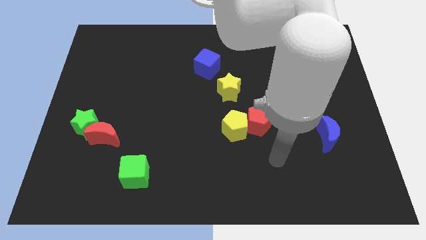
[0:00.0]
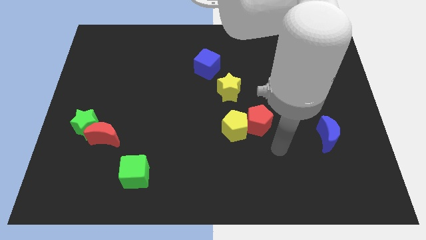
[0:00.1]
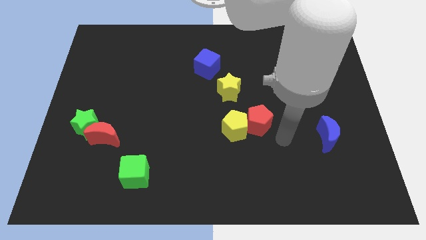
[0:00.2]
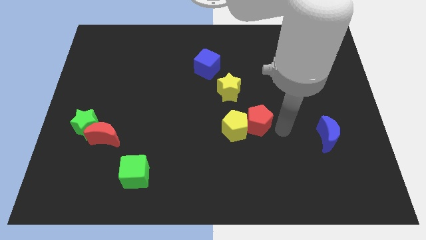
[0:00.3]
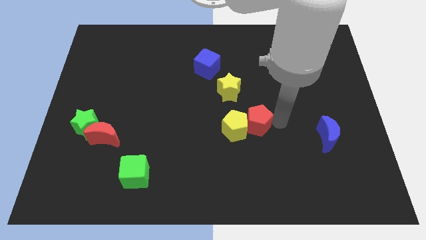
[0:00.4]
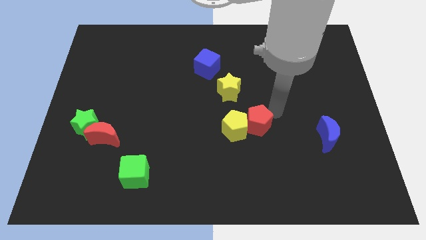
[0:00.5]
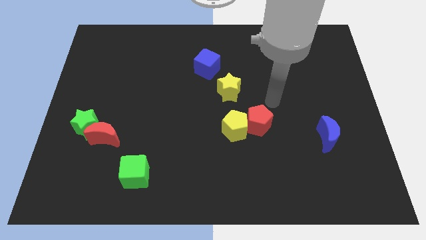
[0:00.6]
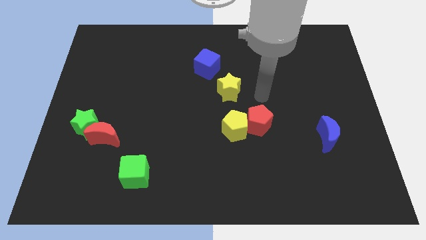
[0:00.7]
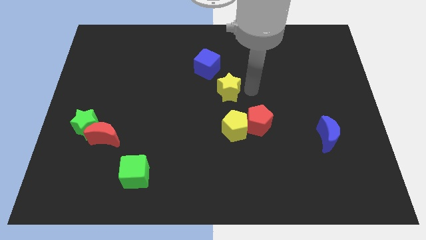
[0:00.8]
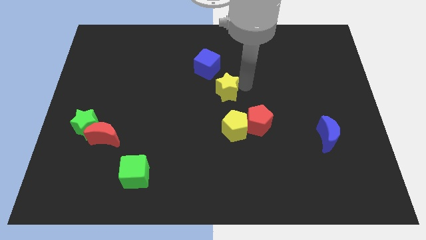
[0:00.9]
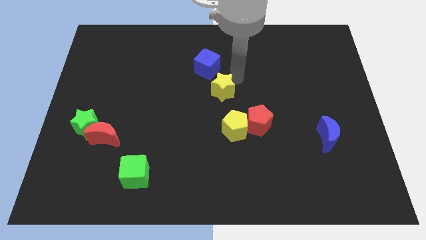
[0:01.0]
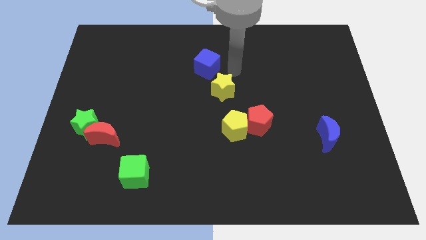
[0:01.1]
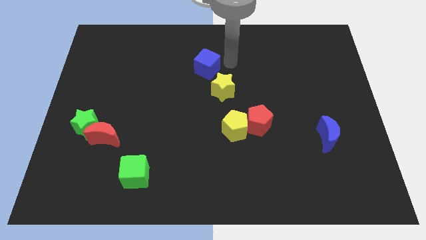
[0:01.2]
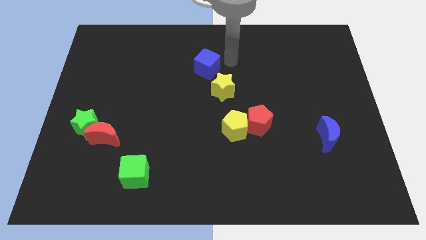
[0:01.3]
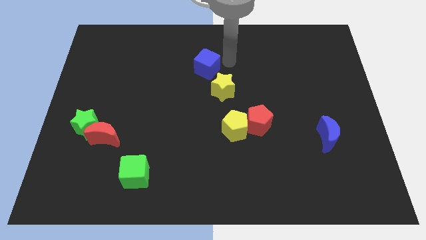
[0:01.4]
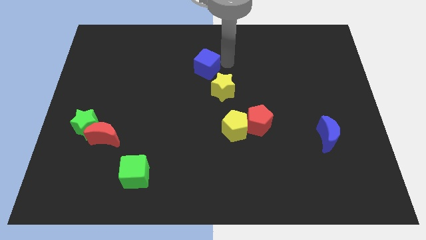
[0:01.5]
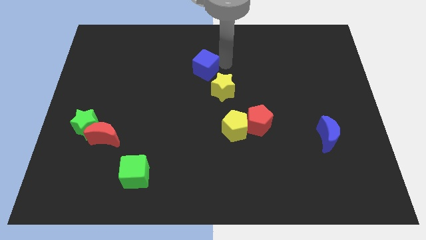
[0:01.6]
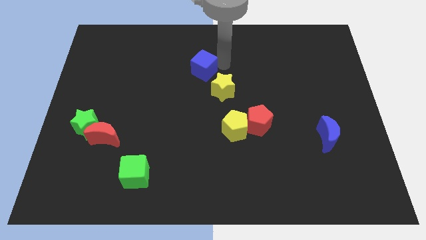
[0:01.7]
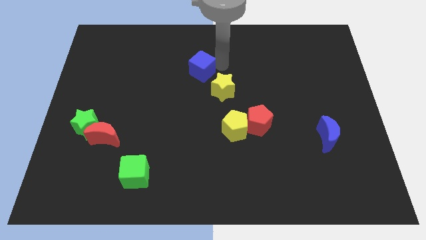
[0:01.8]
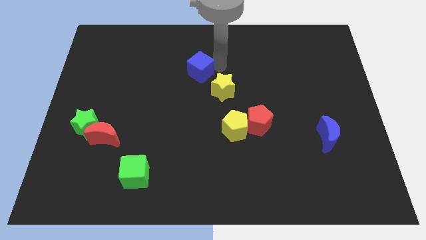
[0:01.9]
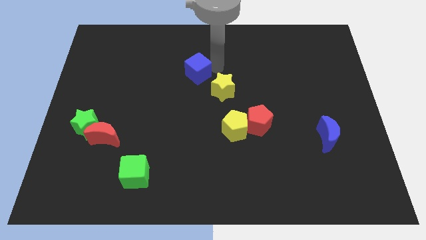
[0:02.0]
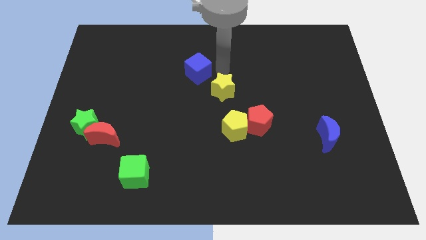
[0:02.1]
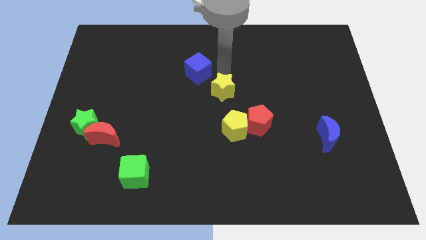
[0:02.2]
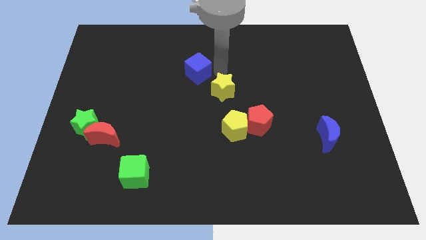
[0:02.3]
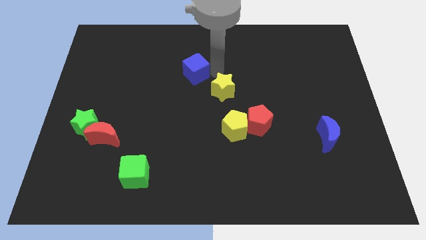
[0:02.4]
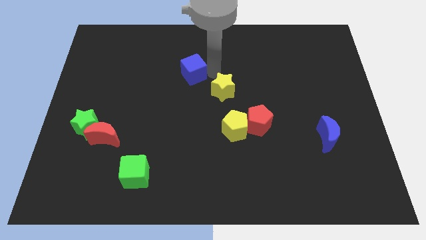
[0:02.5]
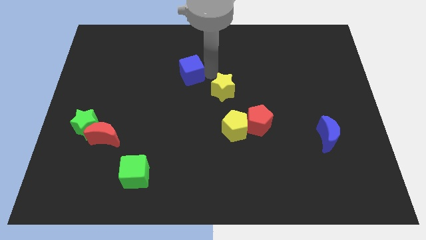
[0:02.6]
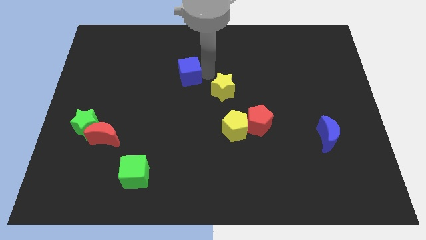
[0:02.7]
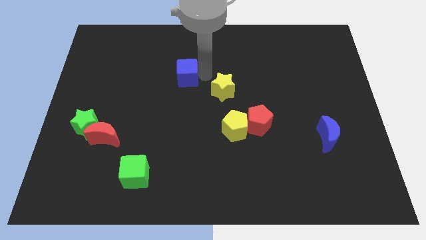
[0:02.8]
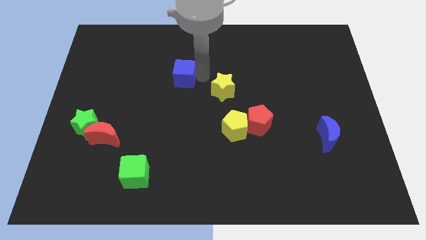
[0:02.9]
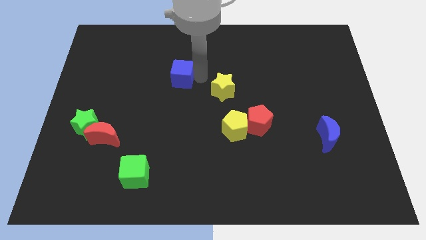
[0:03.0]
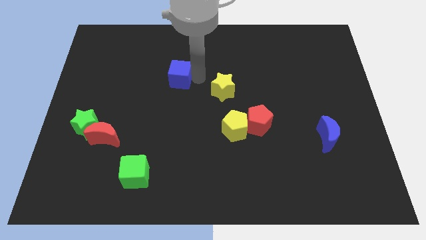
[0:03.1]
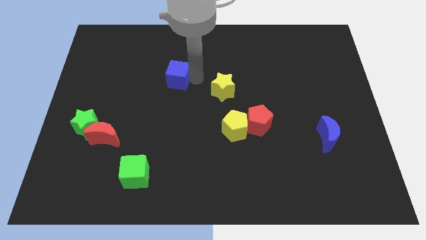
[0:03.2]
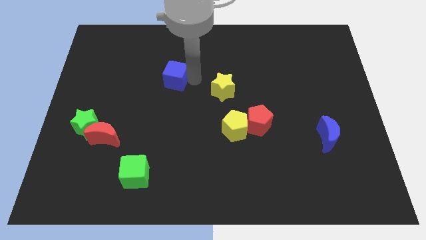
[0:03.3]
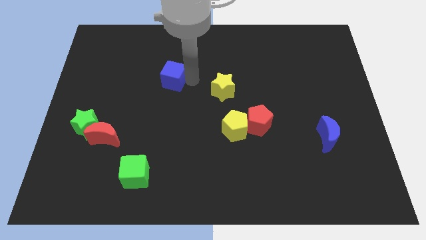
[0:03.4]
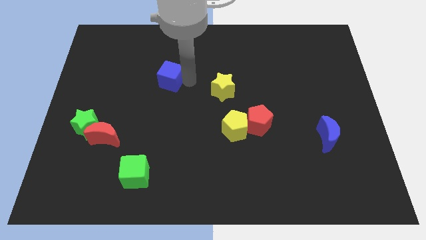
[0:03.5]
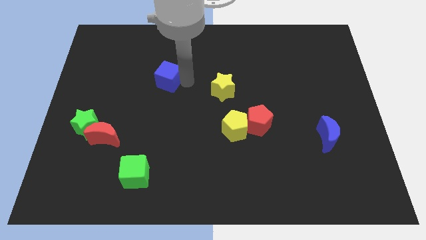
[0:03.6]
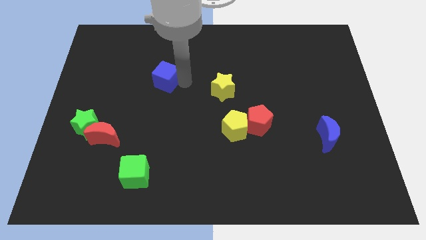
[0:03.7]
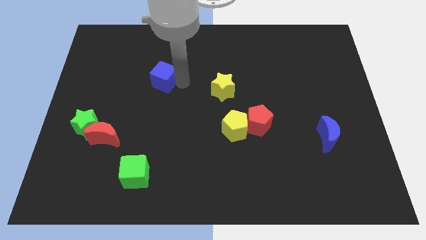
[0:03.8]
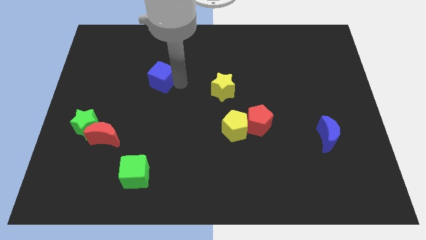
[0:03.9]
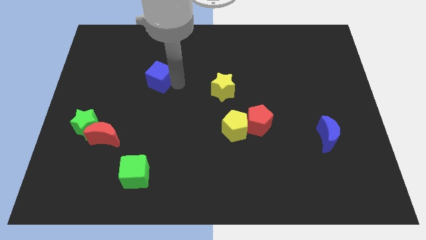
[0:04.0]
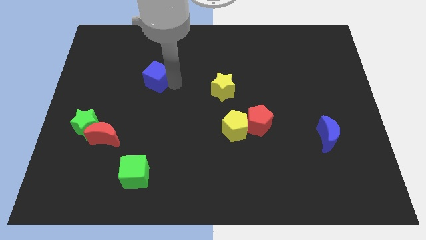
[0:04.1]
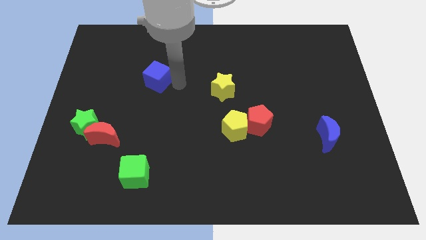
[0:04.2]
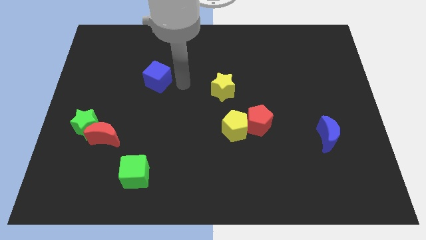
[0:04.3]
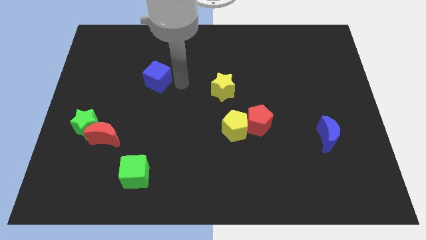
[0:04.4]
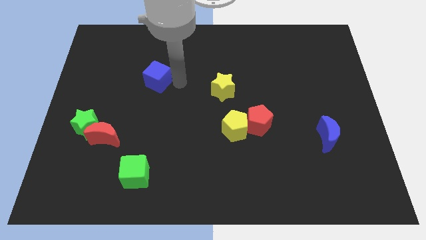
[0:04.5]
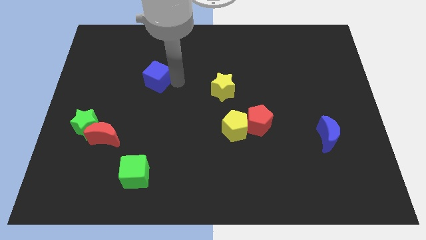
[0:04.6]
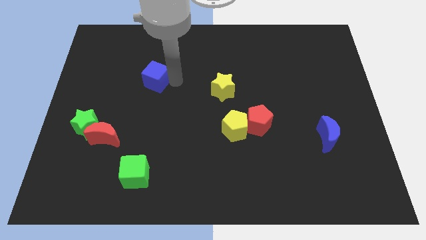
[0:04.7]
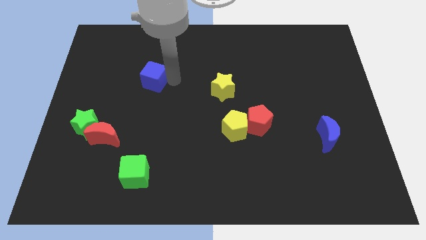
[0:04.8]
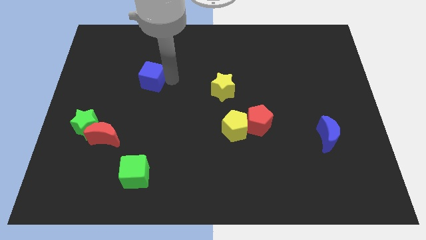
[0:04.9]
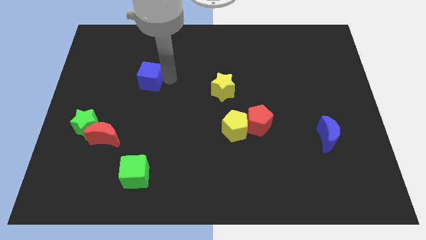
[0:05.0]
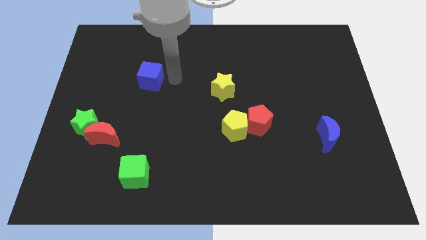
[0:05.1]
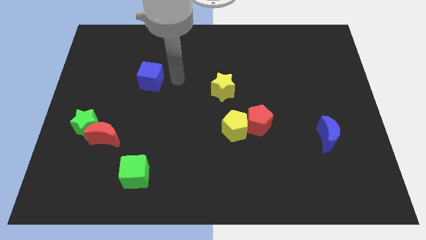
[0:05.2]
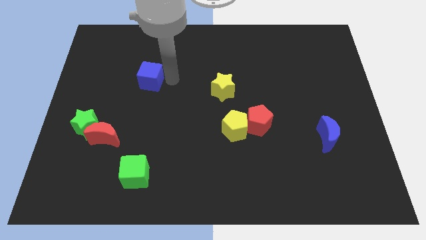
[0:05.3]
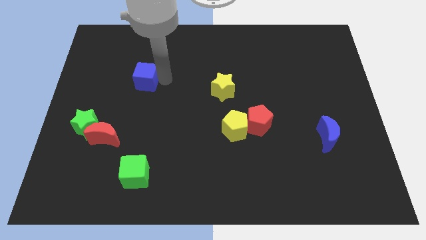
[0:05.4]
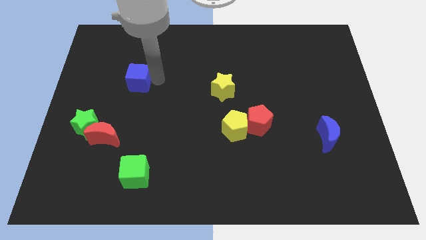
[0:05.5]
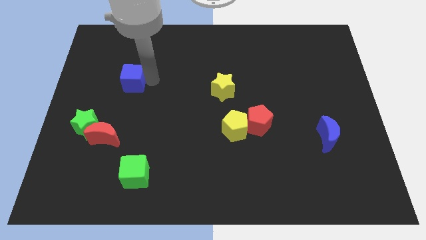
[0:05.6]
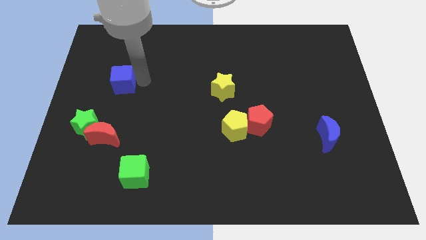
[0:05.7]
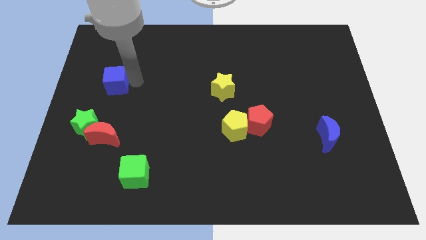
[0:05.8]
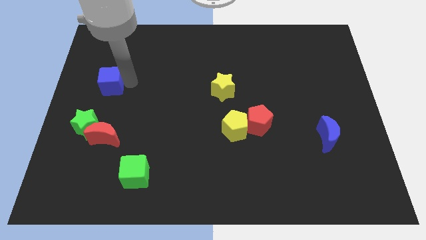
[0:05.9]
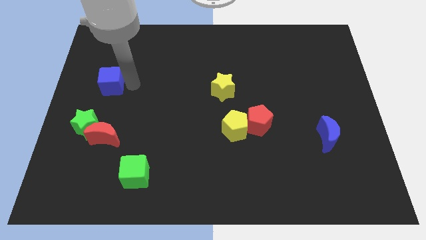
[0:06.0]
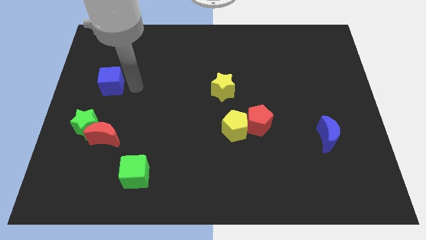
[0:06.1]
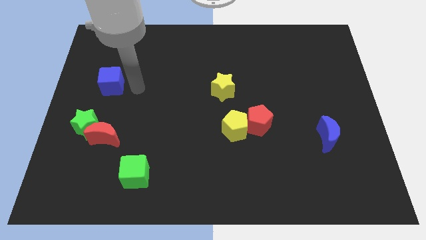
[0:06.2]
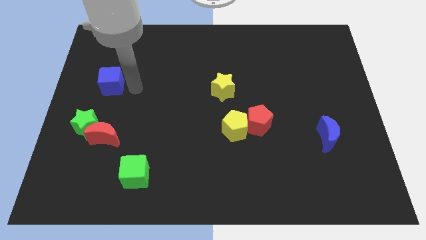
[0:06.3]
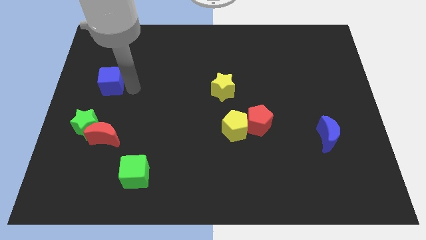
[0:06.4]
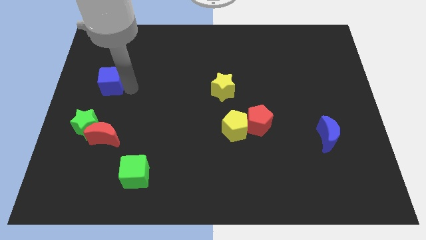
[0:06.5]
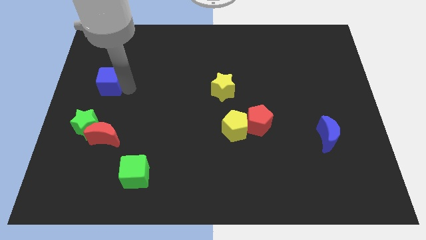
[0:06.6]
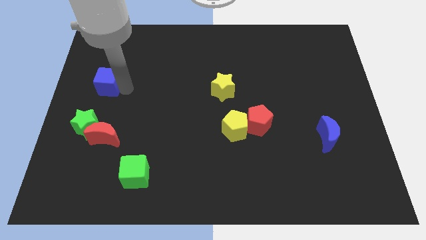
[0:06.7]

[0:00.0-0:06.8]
slide the blue cube to the left side
